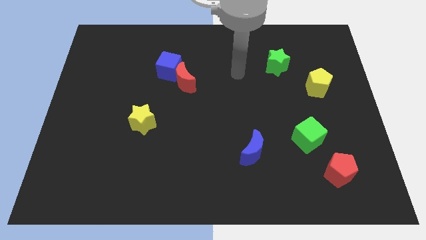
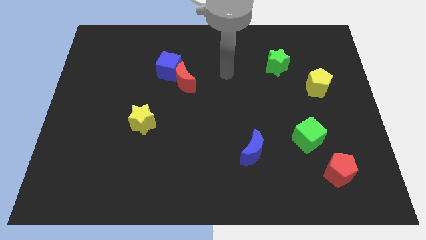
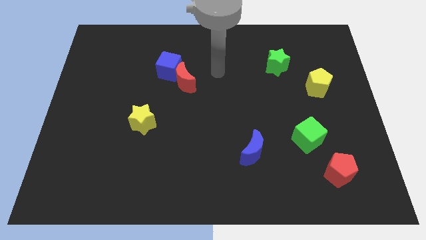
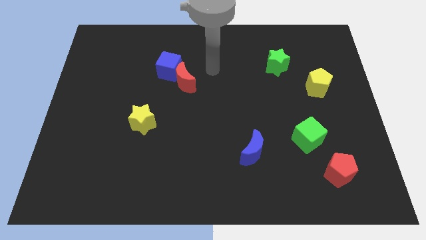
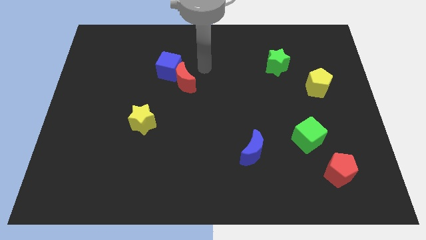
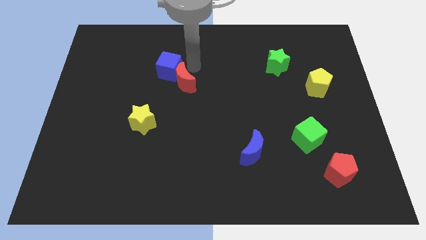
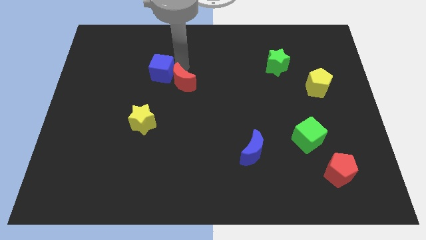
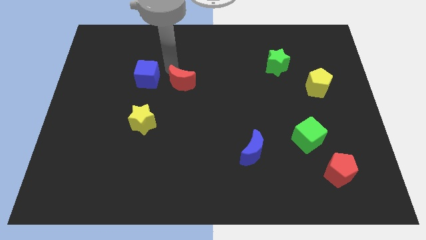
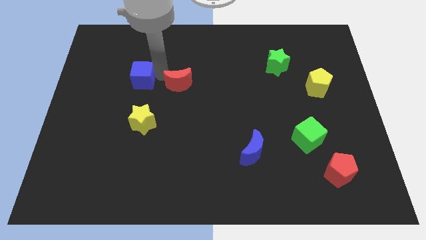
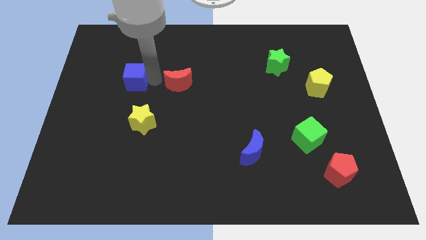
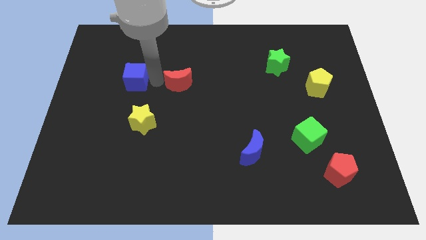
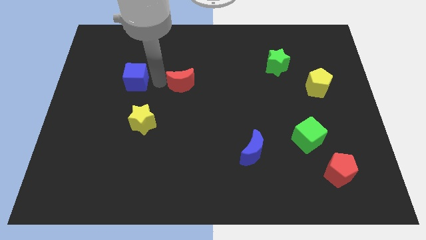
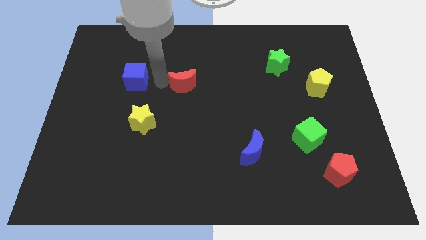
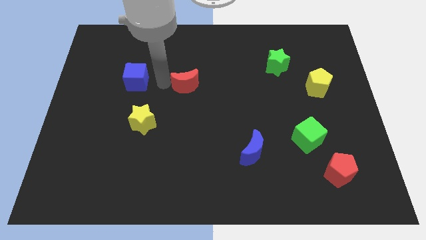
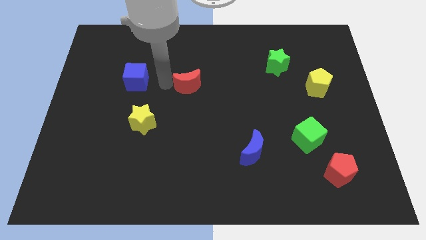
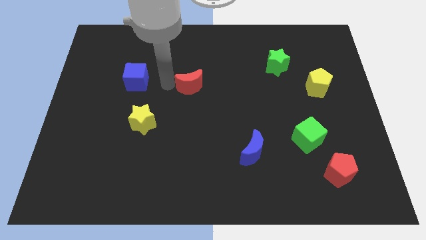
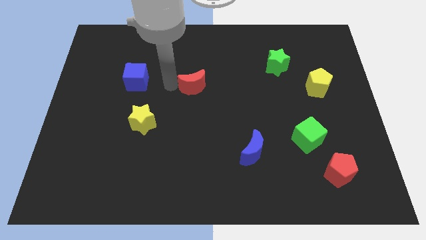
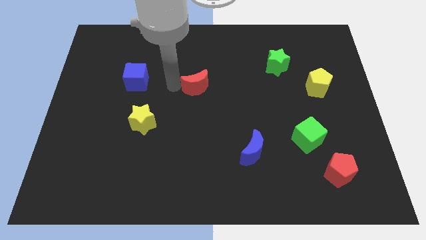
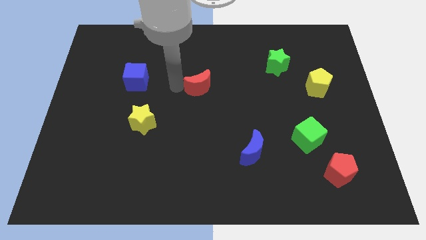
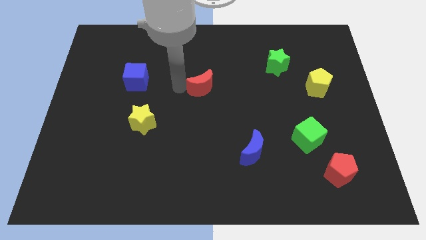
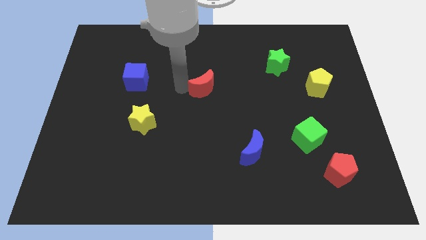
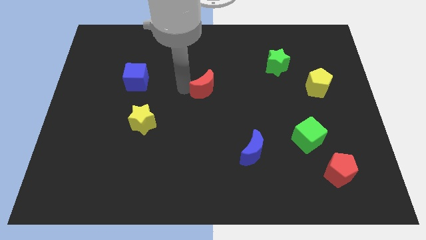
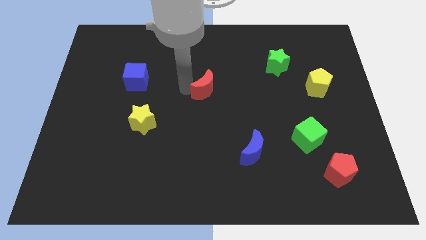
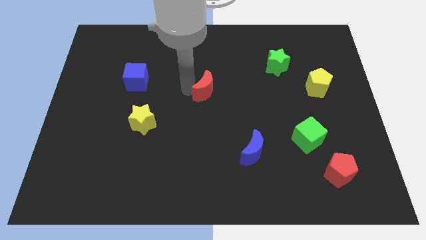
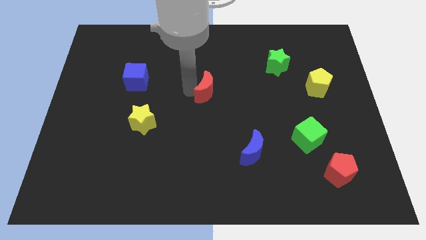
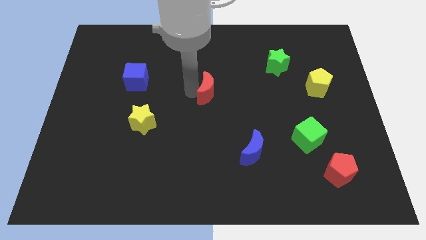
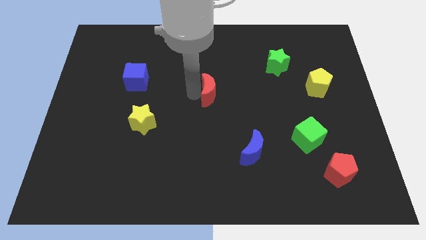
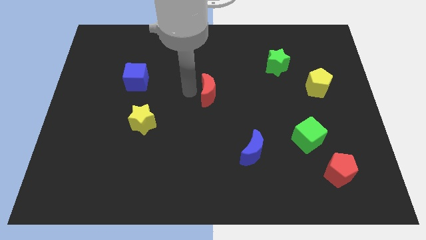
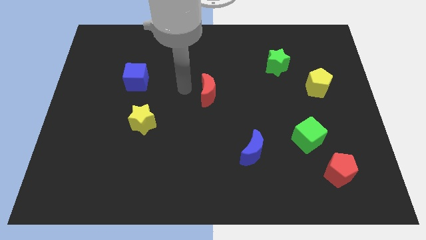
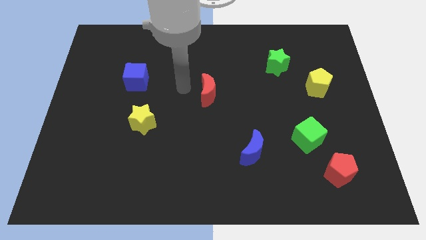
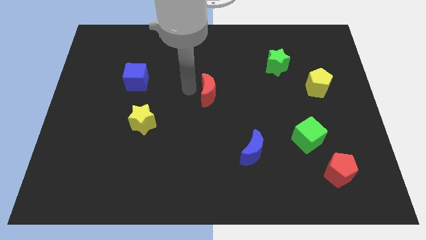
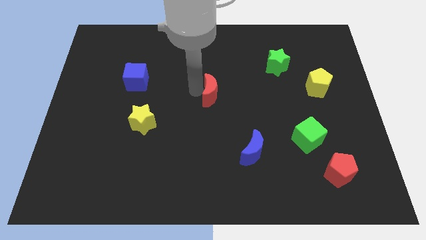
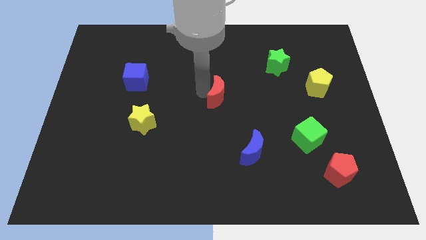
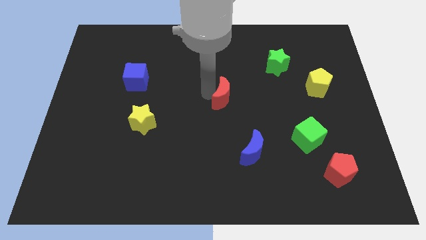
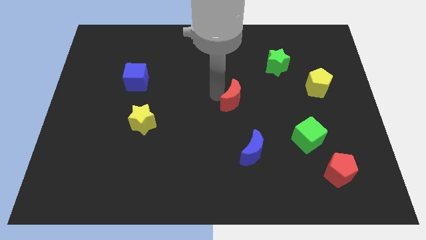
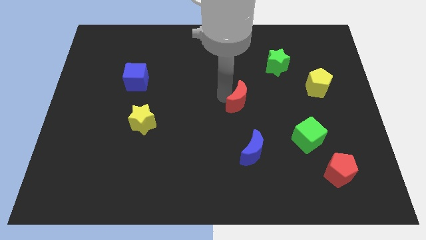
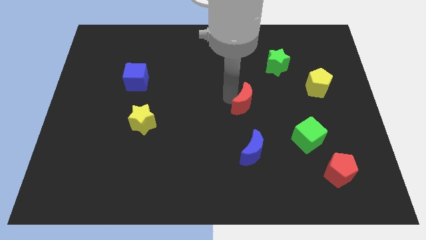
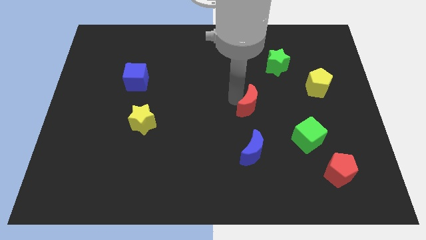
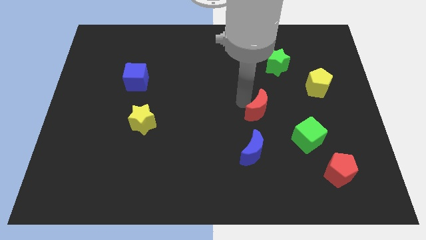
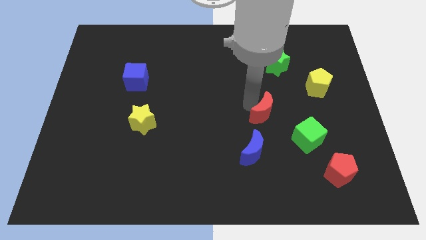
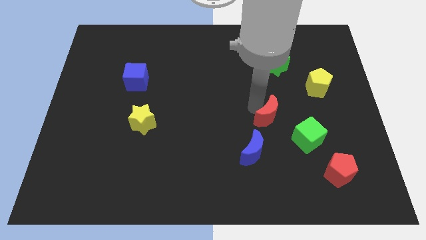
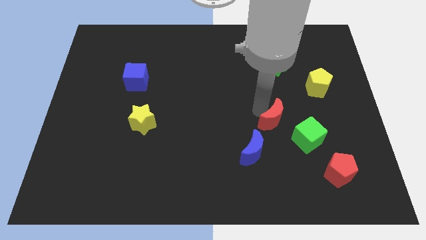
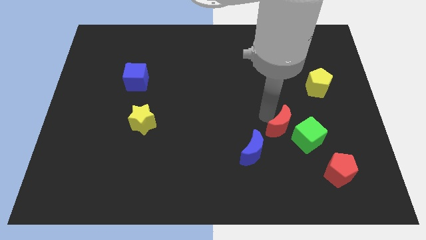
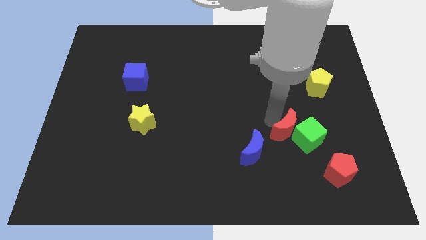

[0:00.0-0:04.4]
push the red moon close to the green cube

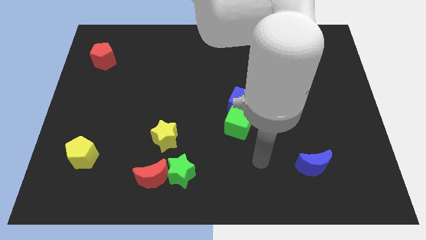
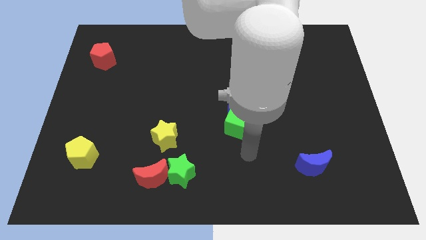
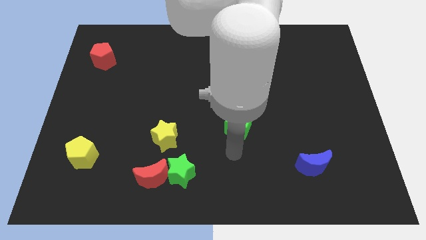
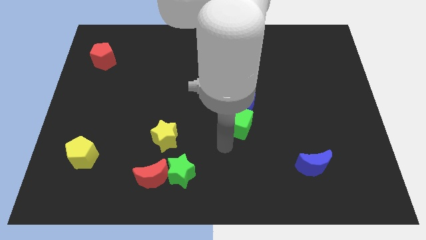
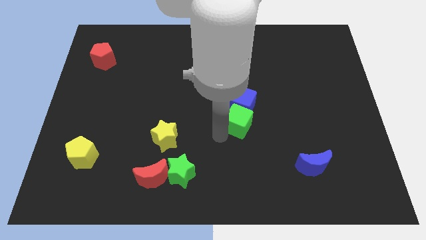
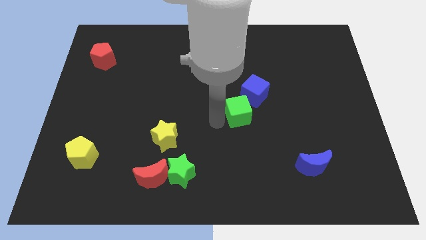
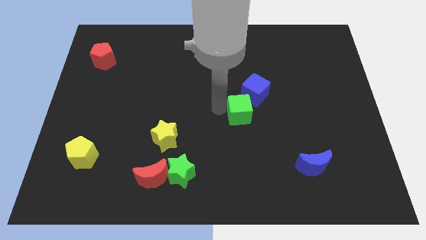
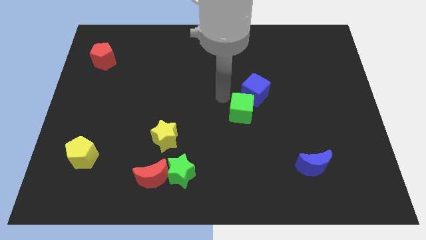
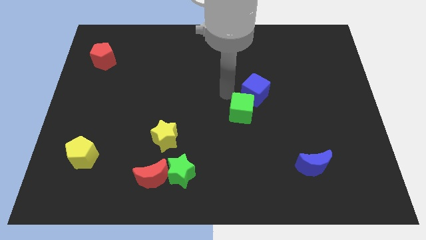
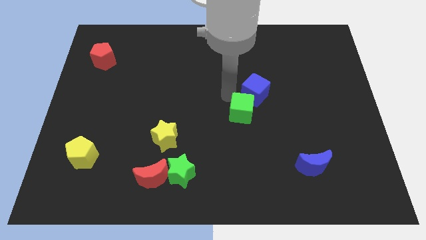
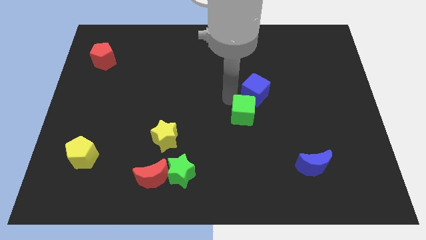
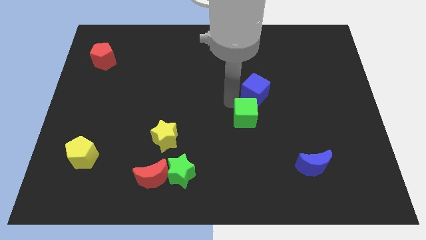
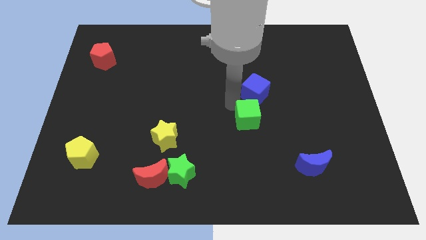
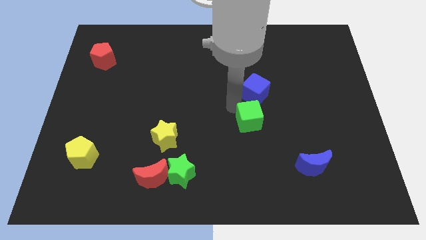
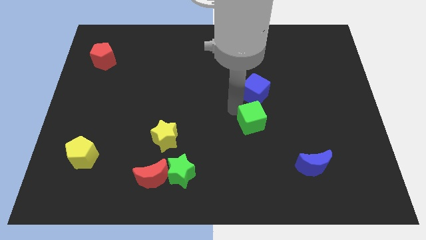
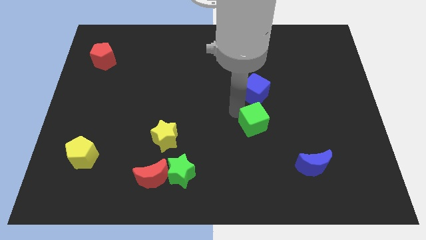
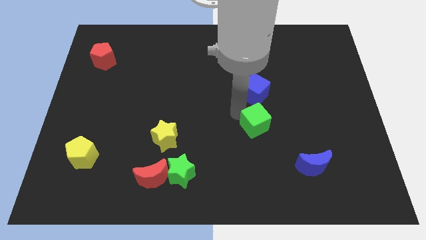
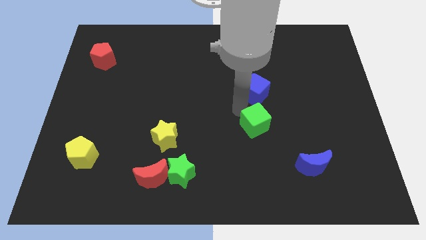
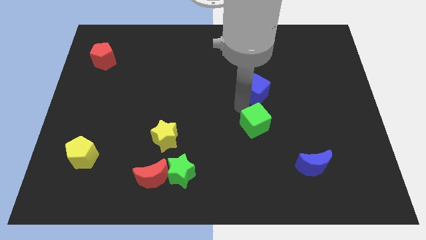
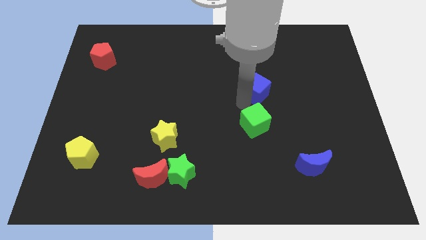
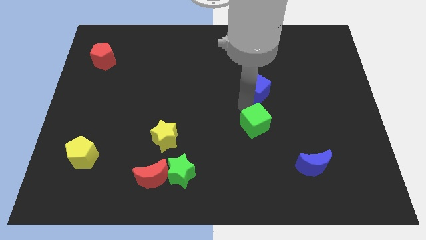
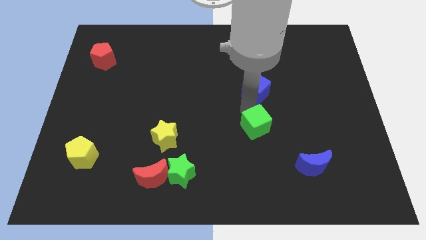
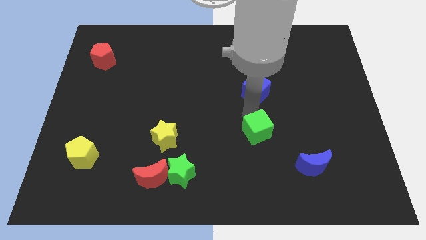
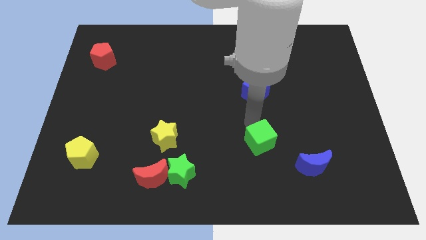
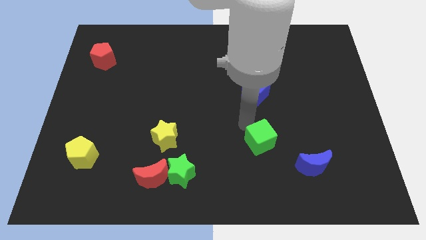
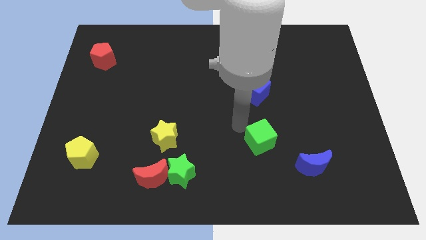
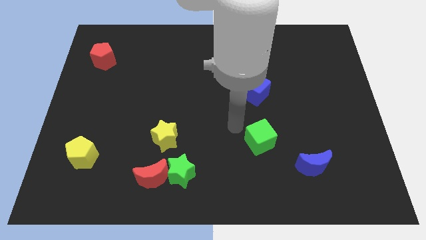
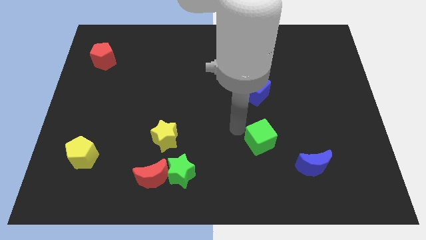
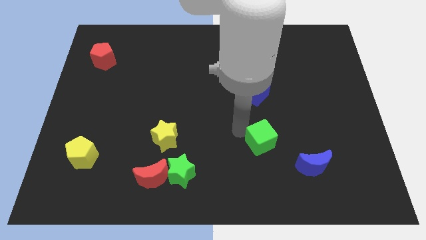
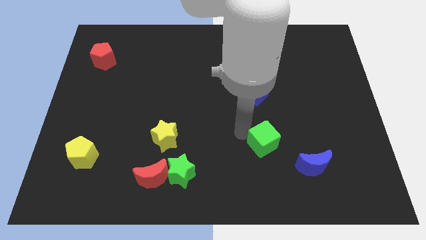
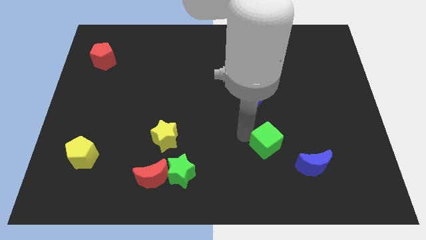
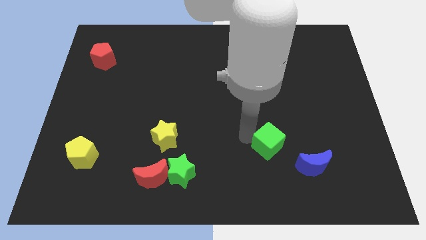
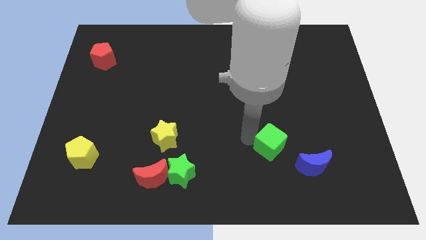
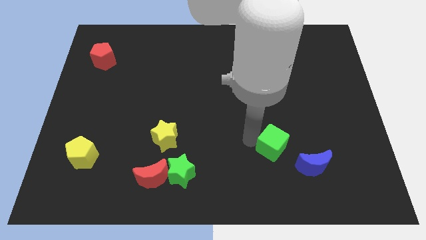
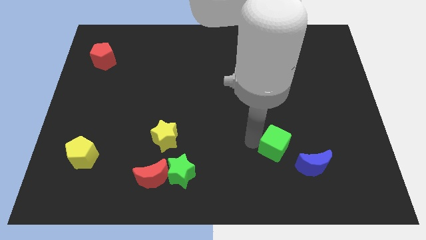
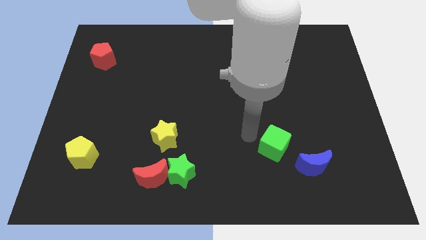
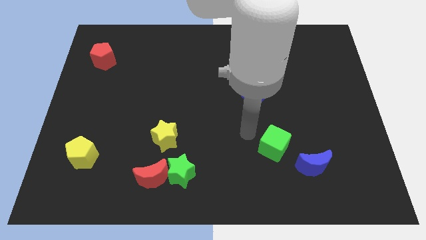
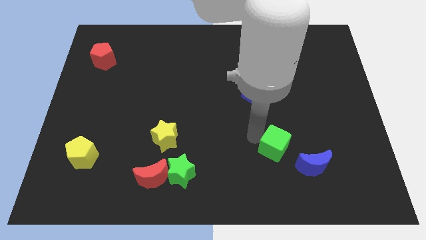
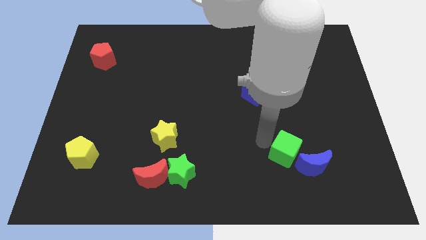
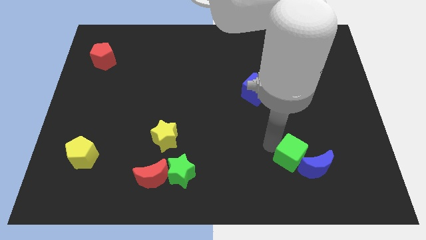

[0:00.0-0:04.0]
push the green cube next to the blue moon

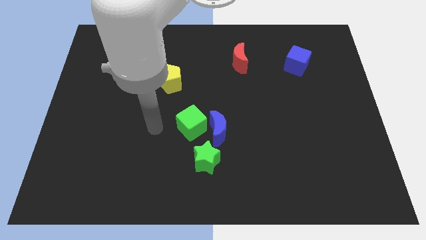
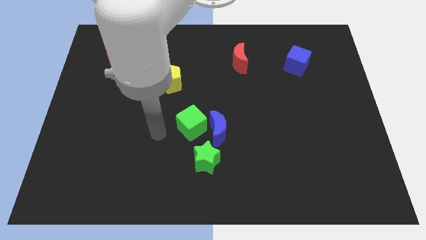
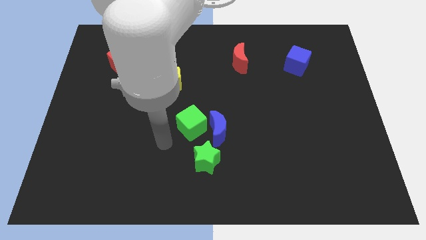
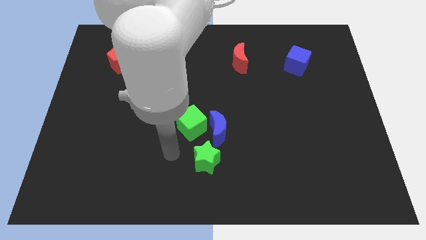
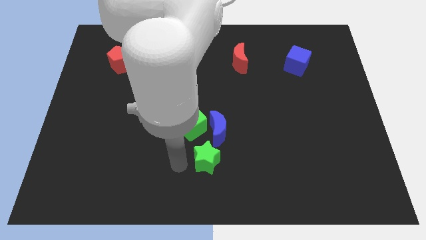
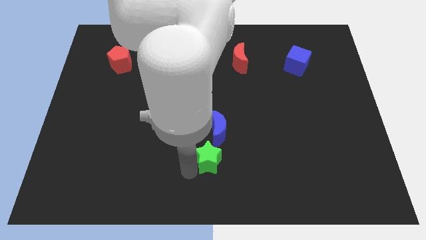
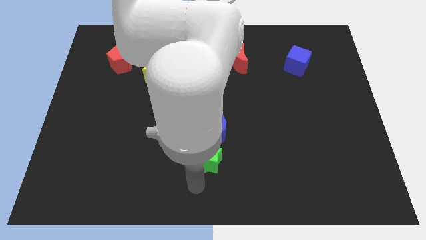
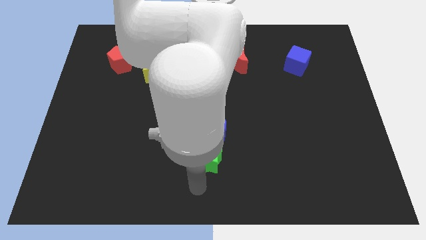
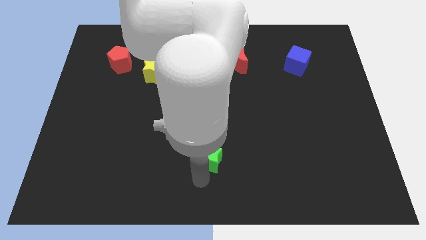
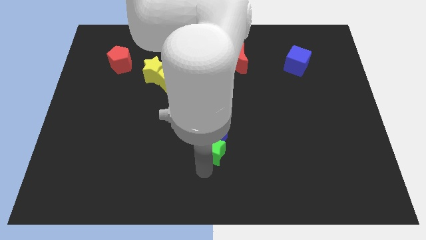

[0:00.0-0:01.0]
push the green star to the blue moon
